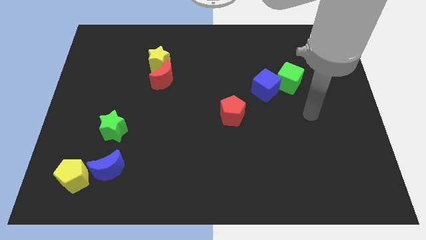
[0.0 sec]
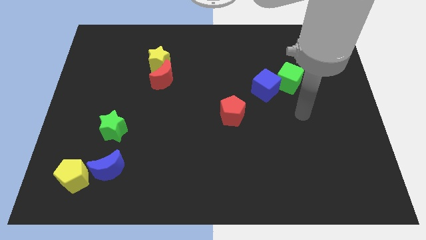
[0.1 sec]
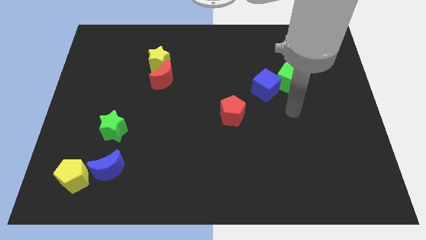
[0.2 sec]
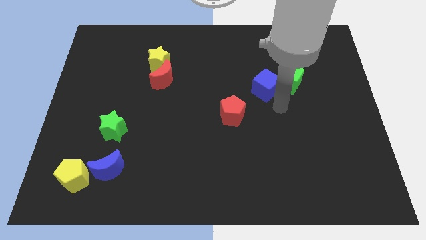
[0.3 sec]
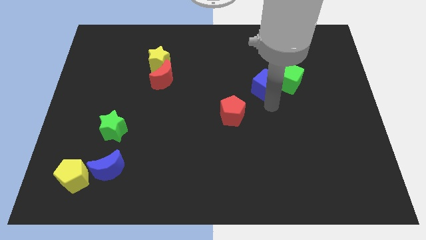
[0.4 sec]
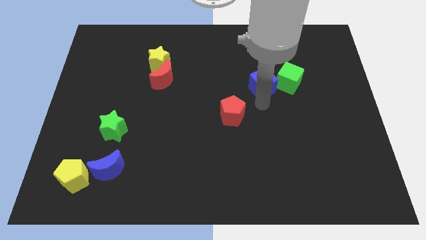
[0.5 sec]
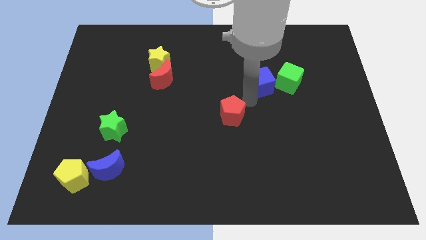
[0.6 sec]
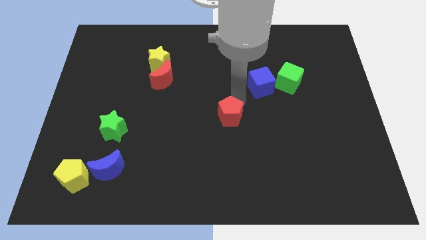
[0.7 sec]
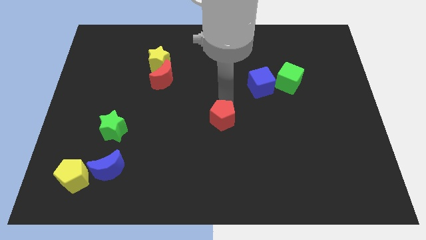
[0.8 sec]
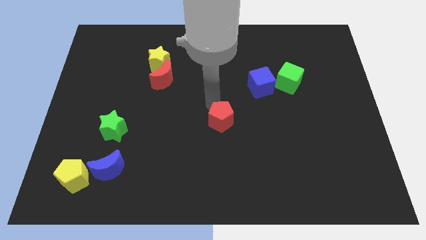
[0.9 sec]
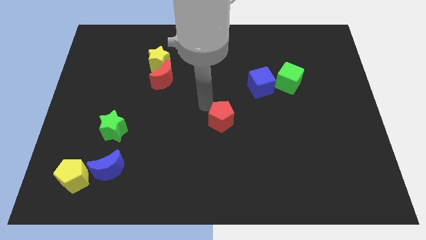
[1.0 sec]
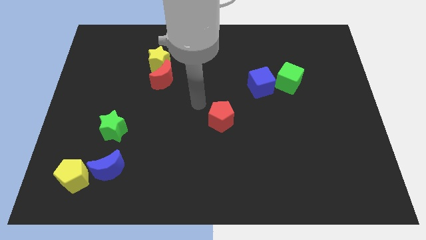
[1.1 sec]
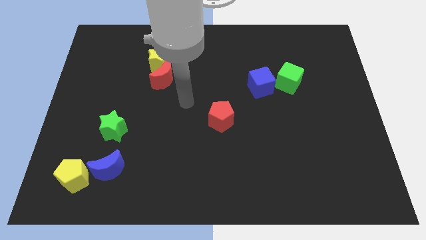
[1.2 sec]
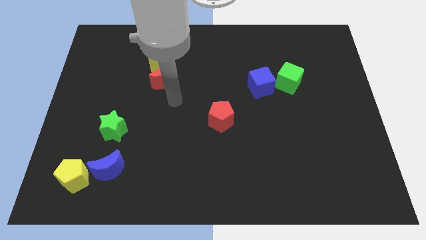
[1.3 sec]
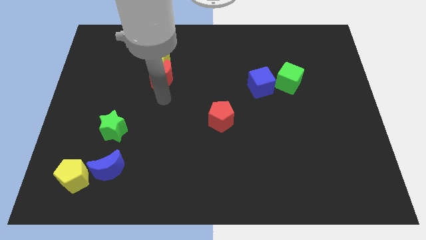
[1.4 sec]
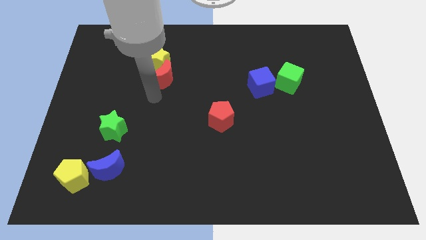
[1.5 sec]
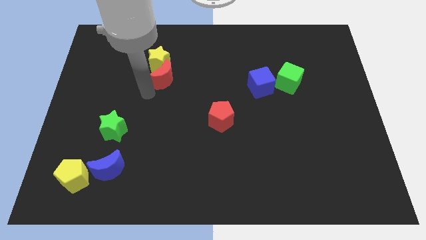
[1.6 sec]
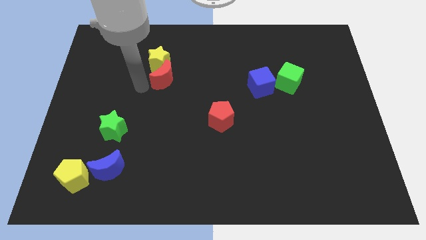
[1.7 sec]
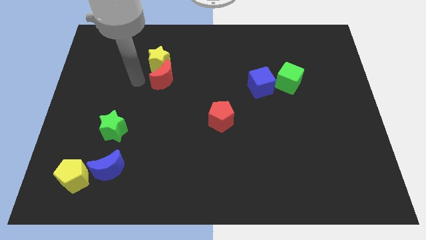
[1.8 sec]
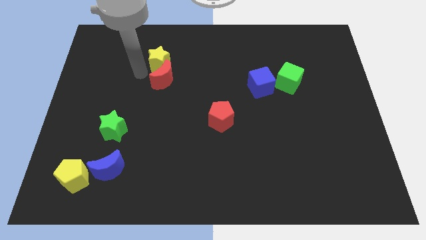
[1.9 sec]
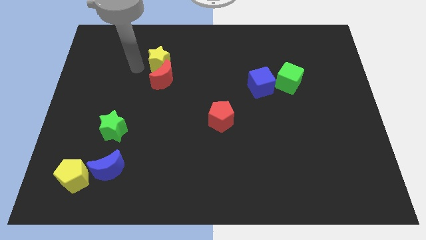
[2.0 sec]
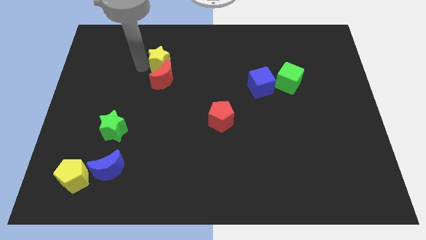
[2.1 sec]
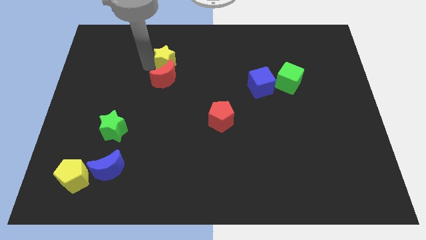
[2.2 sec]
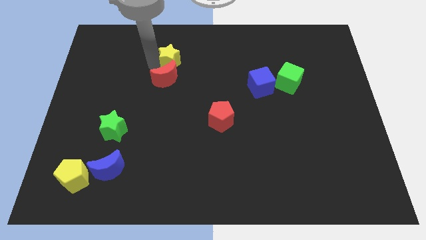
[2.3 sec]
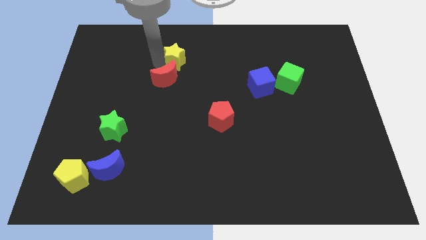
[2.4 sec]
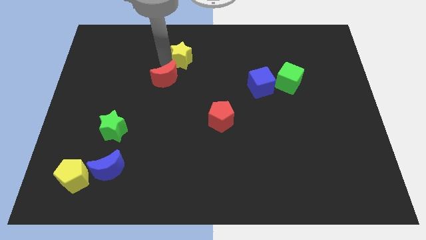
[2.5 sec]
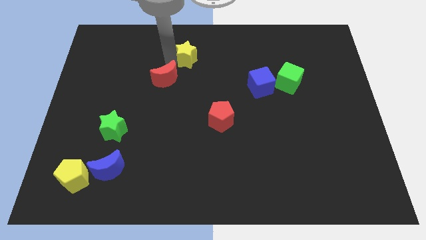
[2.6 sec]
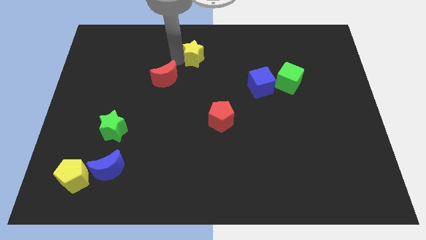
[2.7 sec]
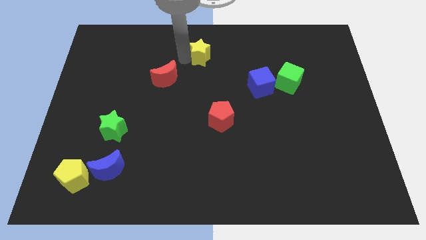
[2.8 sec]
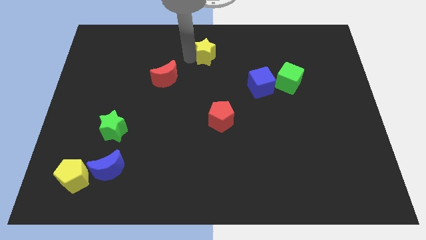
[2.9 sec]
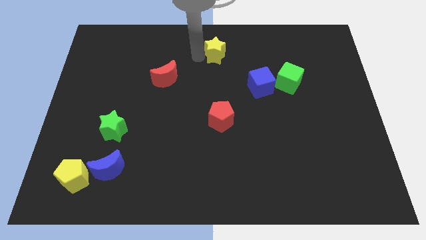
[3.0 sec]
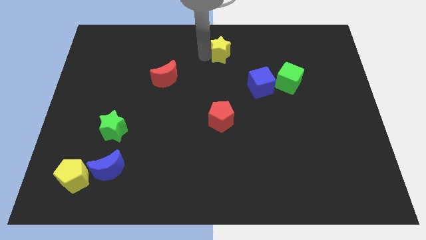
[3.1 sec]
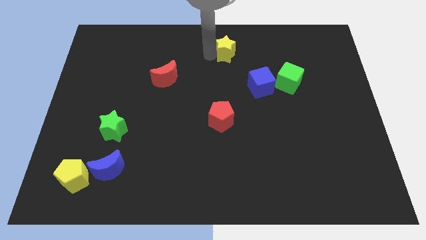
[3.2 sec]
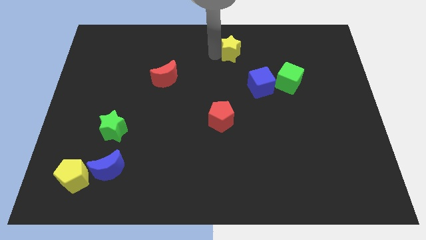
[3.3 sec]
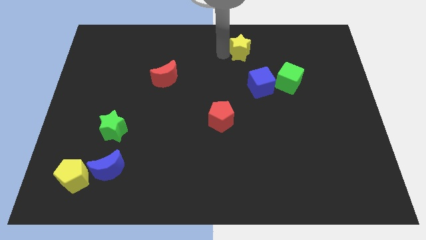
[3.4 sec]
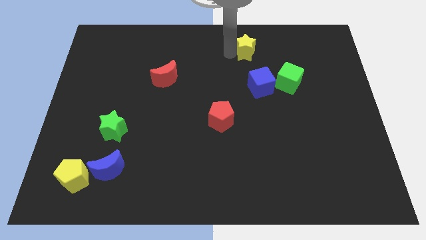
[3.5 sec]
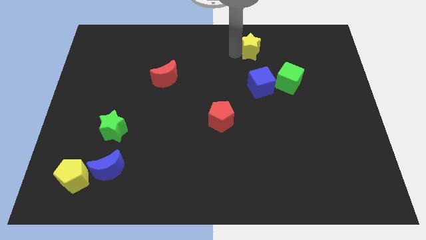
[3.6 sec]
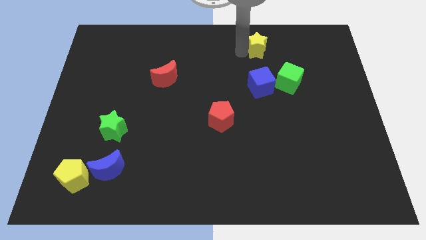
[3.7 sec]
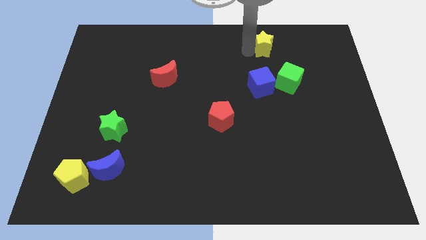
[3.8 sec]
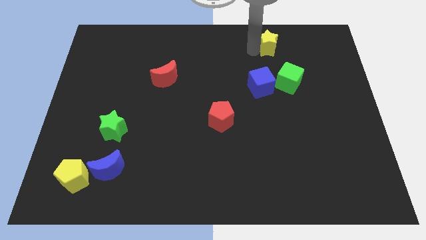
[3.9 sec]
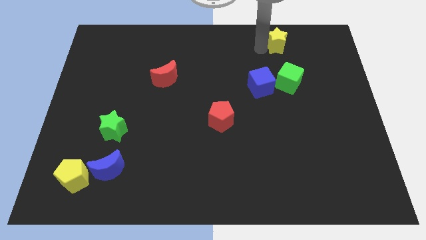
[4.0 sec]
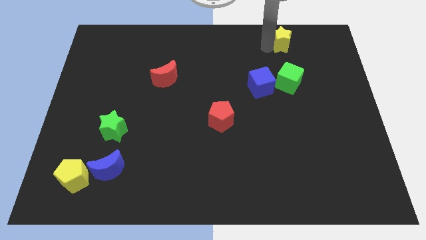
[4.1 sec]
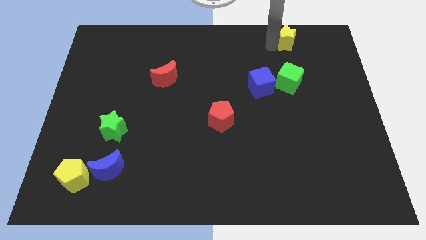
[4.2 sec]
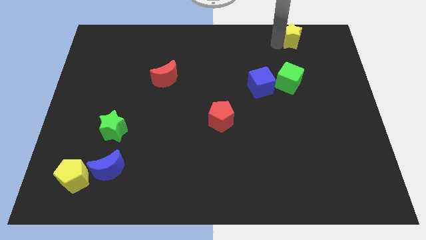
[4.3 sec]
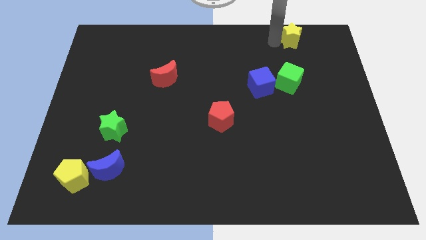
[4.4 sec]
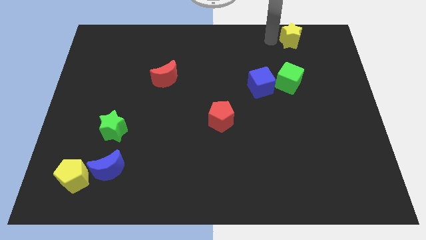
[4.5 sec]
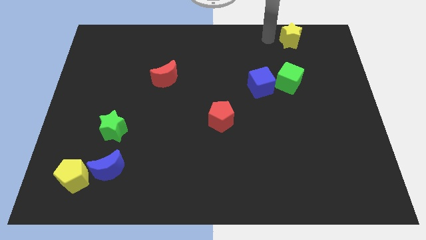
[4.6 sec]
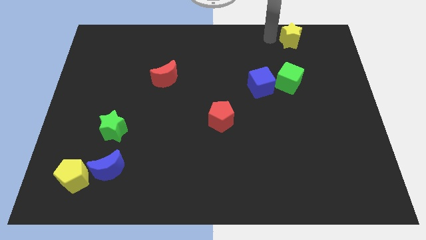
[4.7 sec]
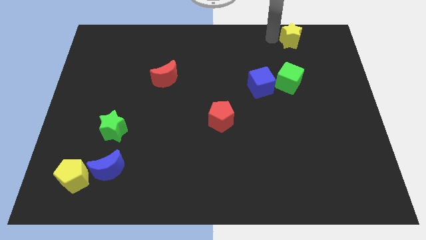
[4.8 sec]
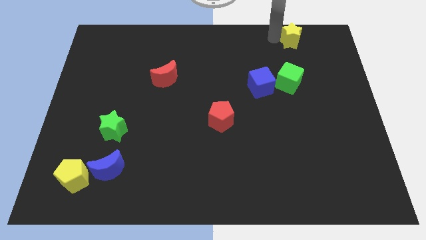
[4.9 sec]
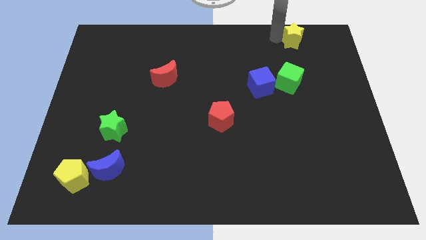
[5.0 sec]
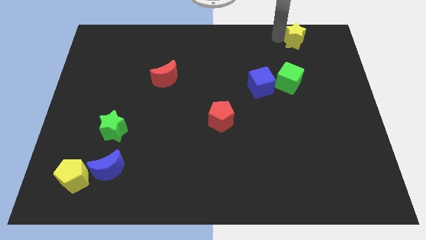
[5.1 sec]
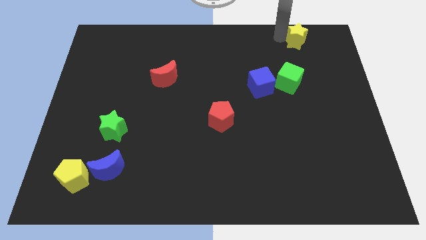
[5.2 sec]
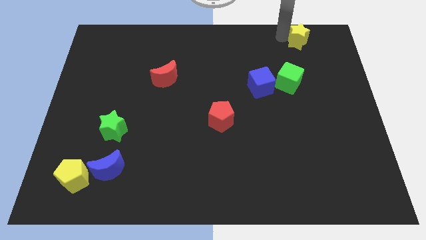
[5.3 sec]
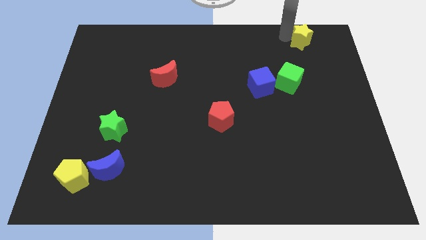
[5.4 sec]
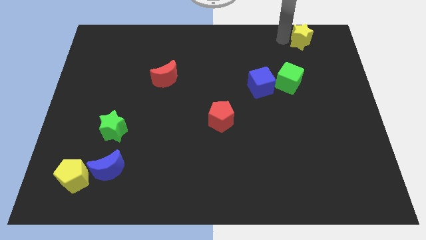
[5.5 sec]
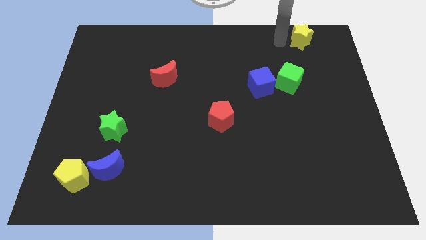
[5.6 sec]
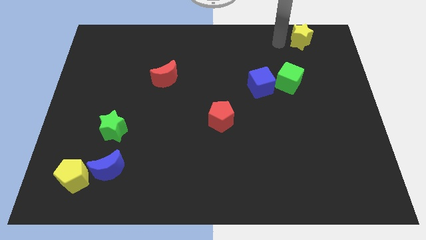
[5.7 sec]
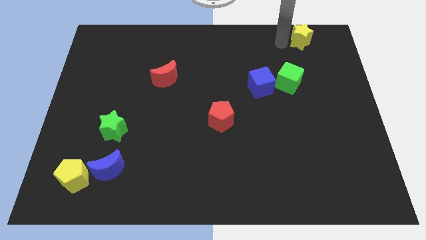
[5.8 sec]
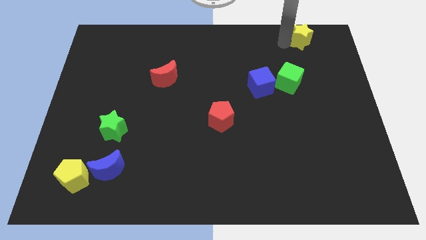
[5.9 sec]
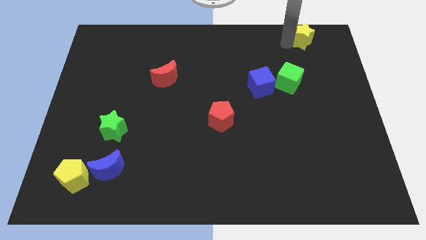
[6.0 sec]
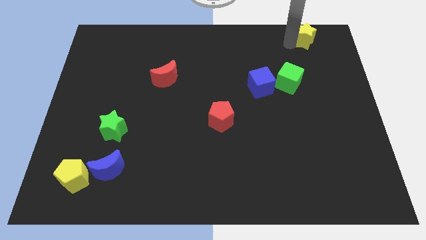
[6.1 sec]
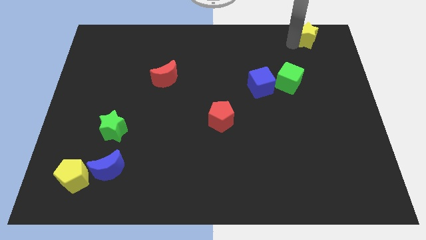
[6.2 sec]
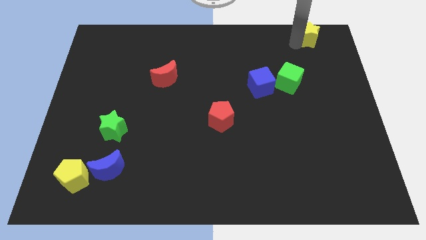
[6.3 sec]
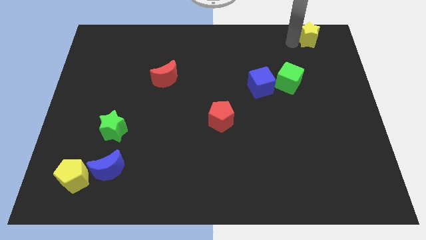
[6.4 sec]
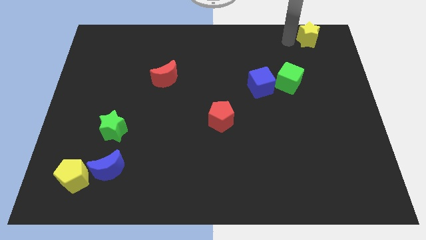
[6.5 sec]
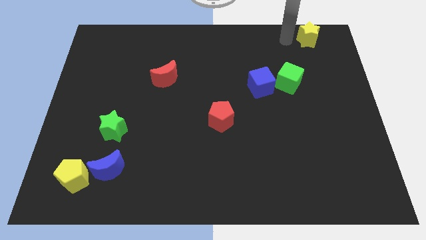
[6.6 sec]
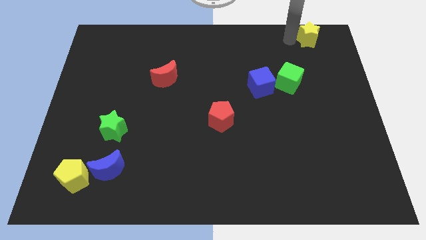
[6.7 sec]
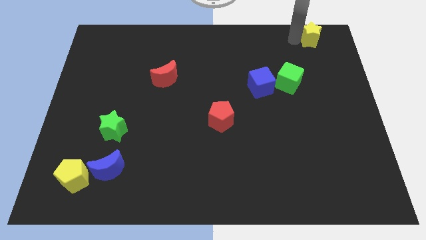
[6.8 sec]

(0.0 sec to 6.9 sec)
put the yellow star to the upper right corner

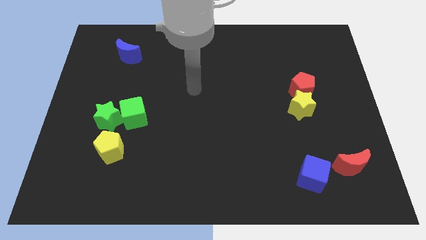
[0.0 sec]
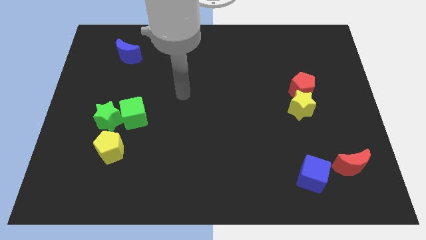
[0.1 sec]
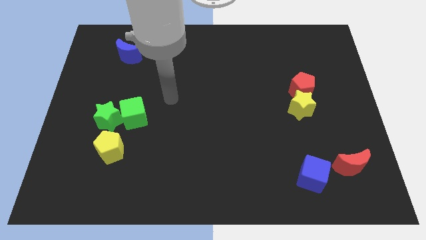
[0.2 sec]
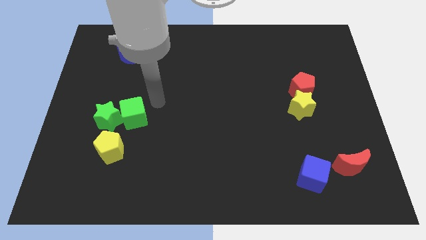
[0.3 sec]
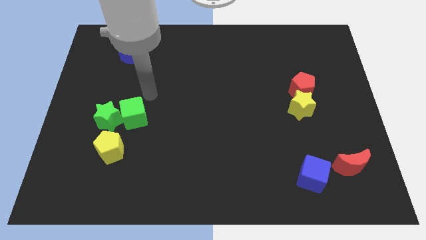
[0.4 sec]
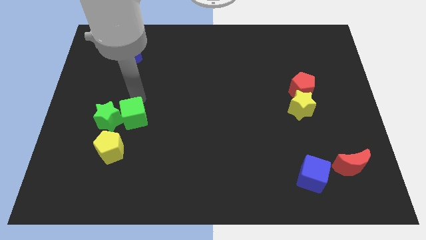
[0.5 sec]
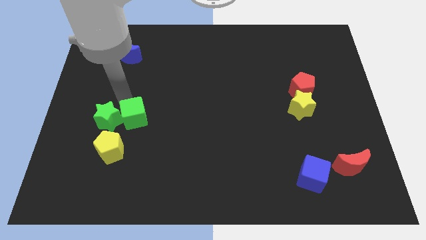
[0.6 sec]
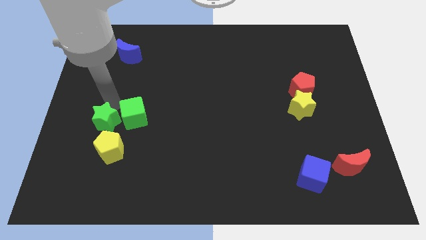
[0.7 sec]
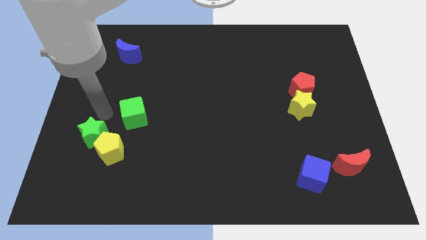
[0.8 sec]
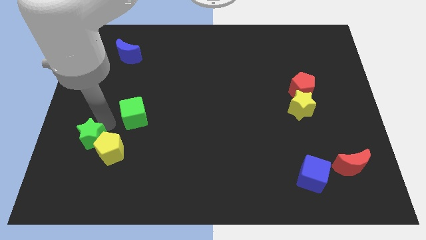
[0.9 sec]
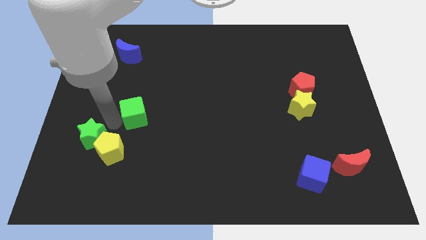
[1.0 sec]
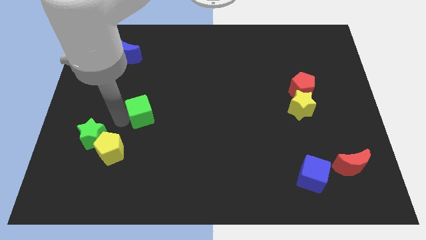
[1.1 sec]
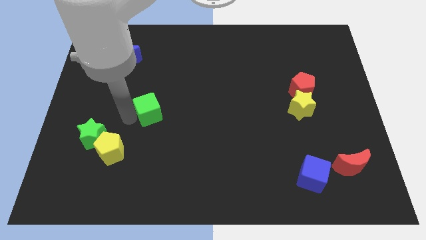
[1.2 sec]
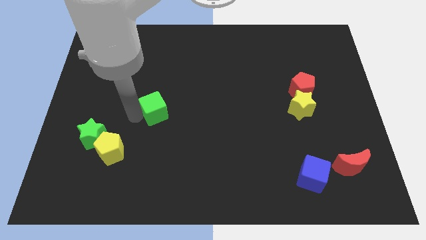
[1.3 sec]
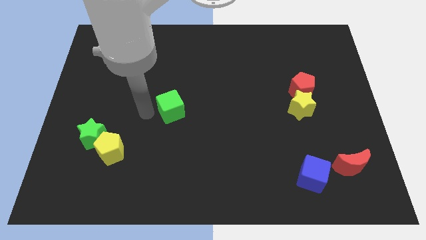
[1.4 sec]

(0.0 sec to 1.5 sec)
slide the green cube to the middle of the board
